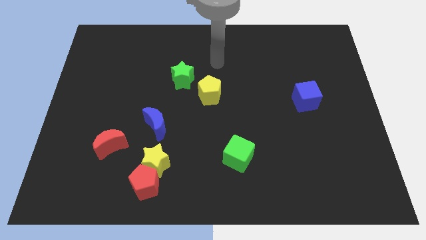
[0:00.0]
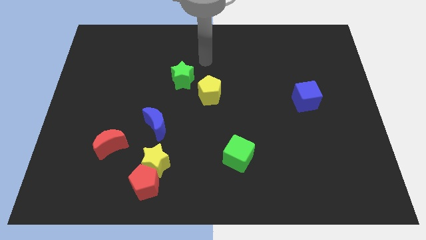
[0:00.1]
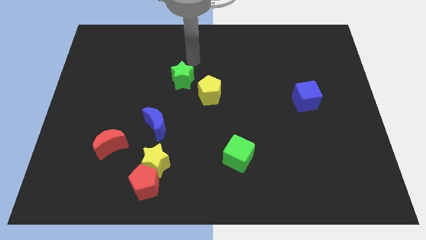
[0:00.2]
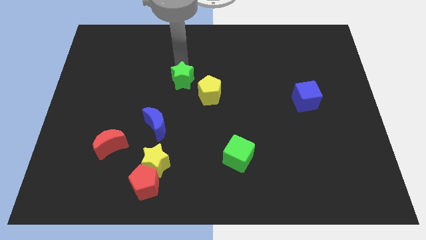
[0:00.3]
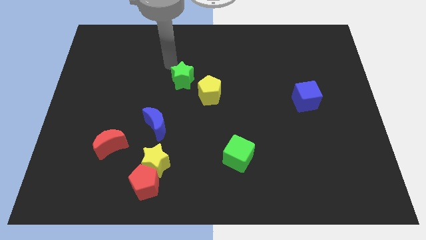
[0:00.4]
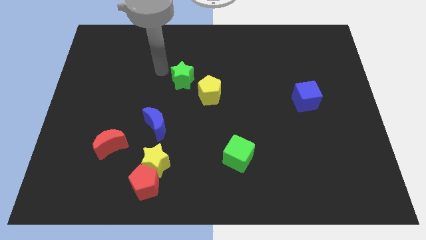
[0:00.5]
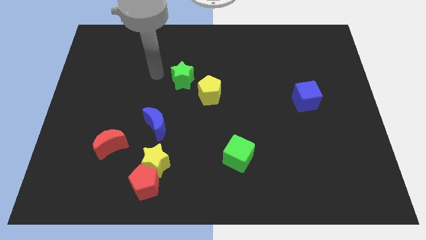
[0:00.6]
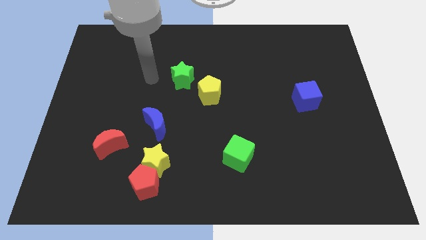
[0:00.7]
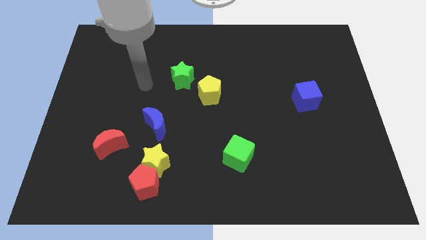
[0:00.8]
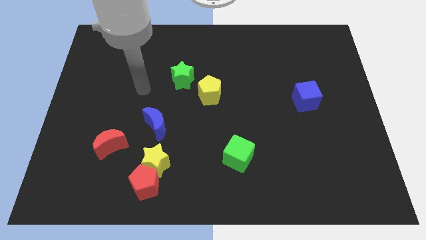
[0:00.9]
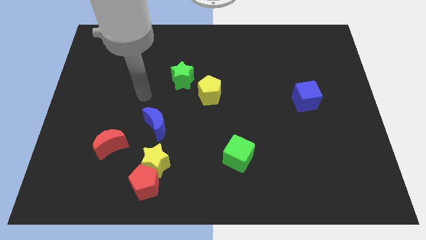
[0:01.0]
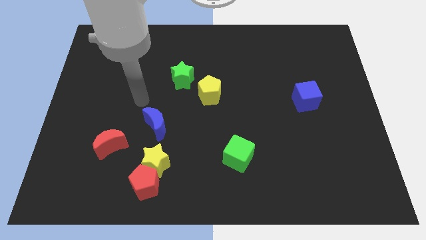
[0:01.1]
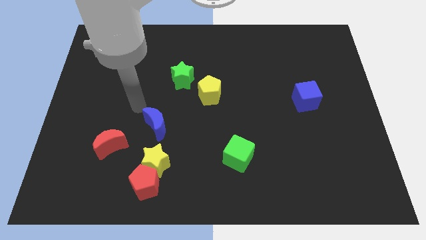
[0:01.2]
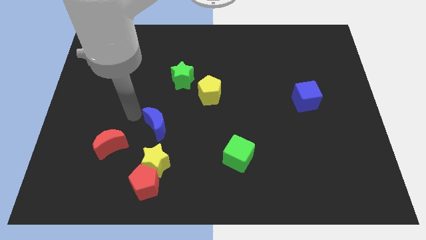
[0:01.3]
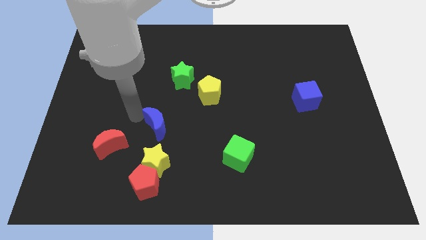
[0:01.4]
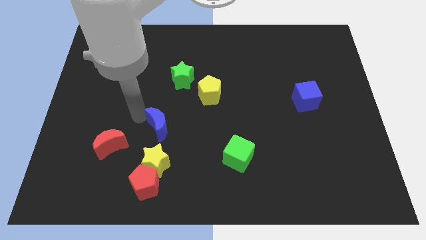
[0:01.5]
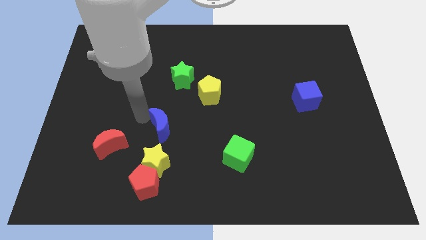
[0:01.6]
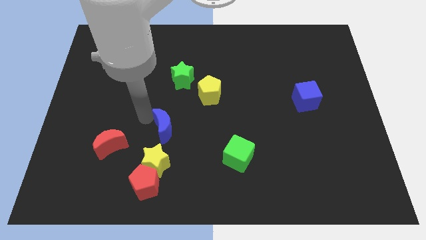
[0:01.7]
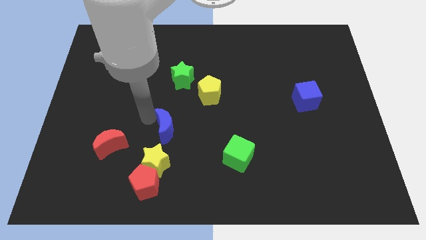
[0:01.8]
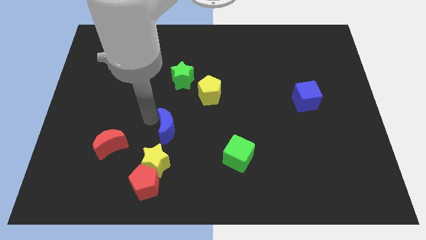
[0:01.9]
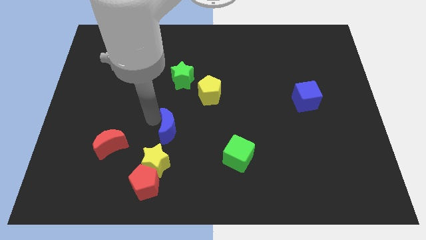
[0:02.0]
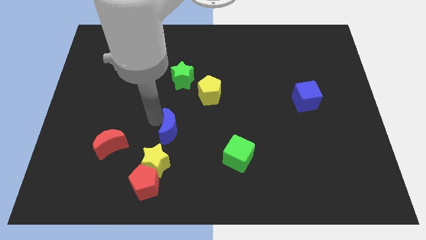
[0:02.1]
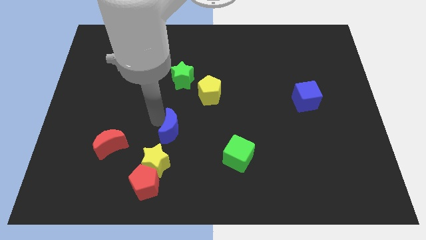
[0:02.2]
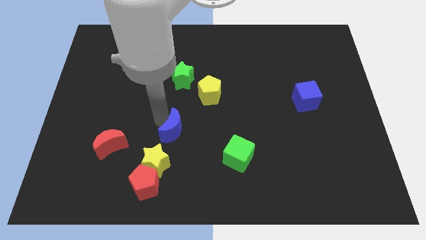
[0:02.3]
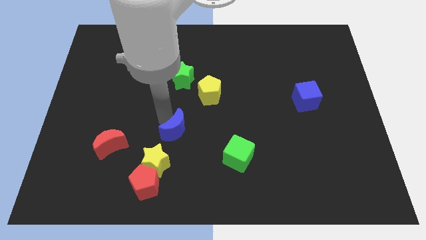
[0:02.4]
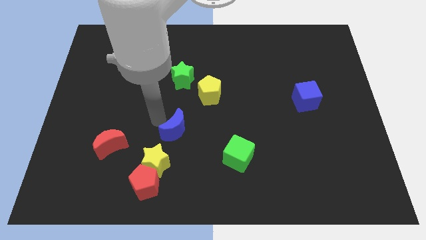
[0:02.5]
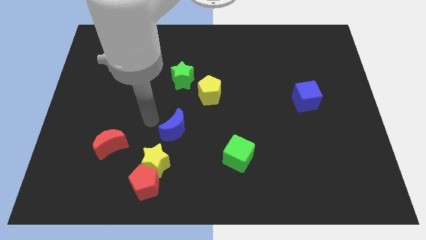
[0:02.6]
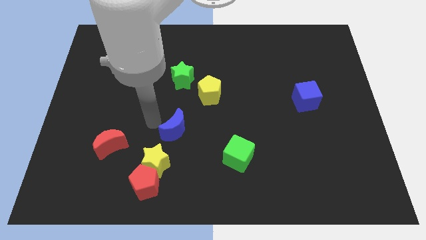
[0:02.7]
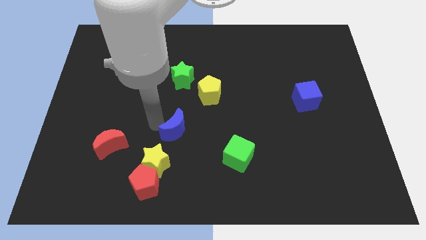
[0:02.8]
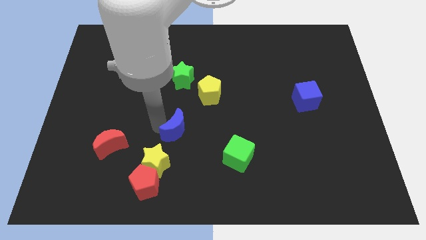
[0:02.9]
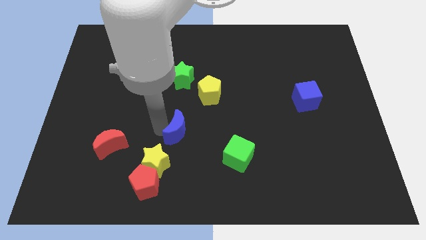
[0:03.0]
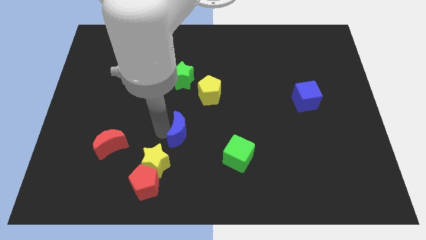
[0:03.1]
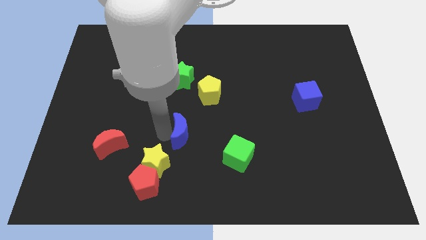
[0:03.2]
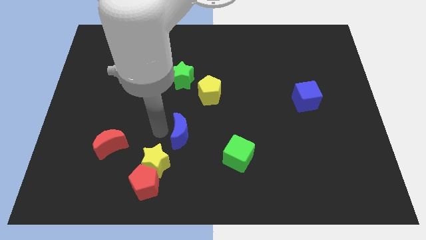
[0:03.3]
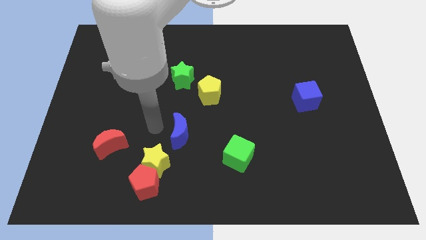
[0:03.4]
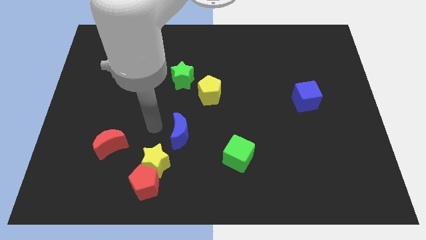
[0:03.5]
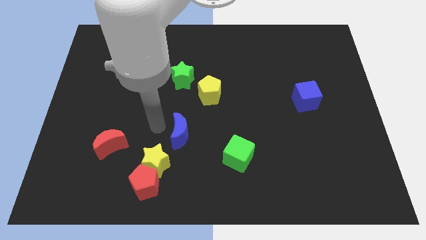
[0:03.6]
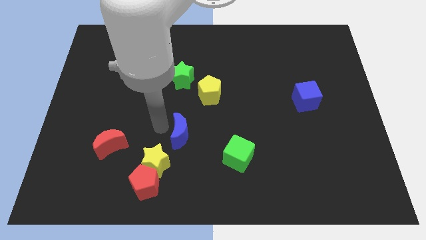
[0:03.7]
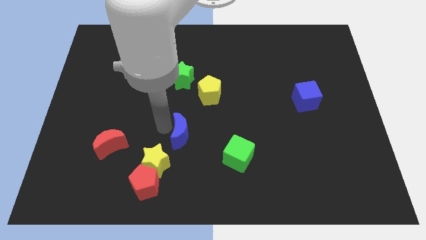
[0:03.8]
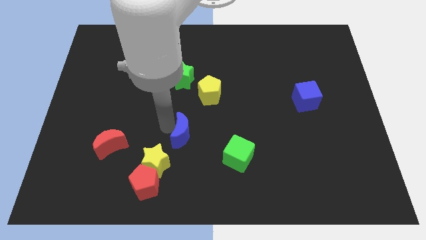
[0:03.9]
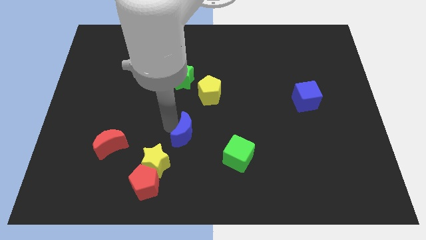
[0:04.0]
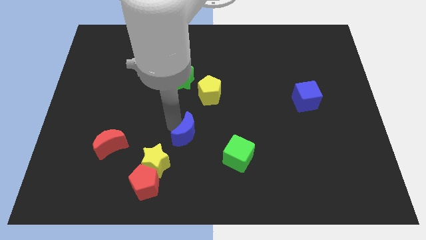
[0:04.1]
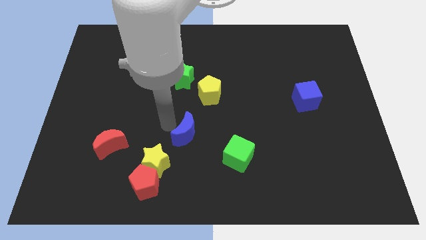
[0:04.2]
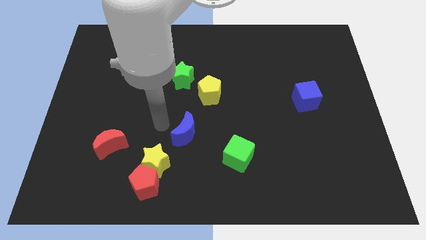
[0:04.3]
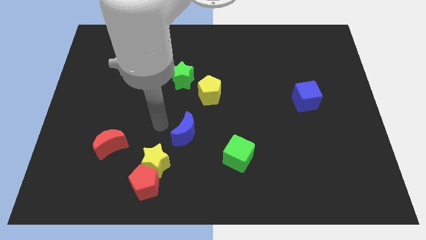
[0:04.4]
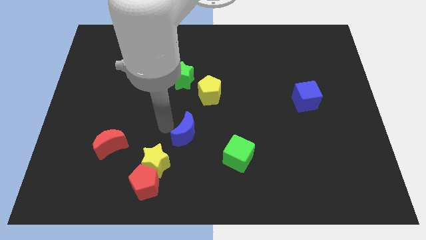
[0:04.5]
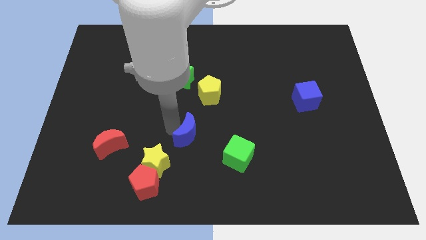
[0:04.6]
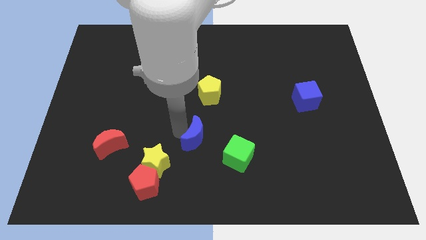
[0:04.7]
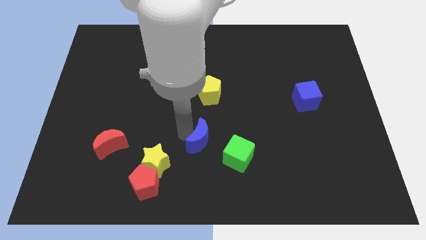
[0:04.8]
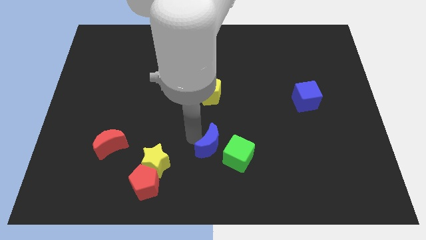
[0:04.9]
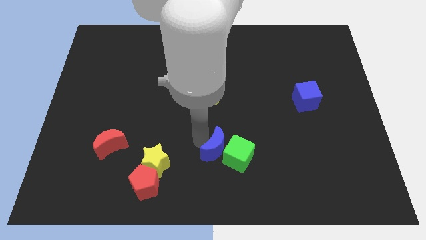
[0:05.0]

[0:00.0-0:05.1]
move the blue moon towards the green cube

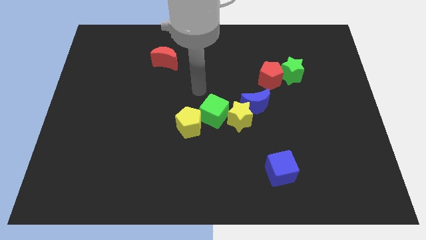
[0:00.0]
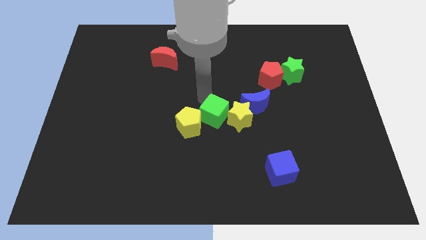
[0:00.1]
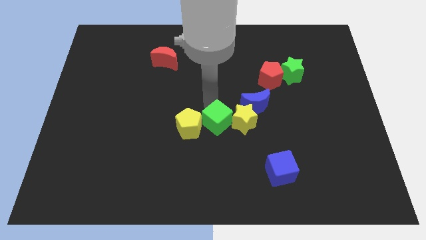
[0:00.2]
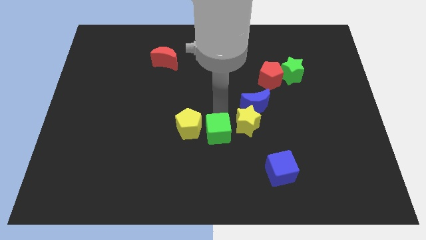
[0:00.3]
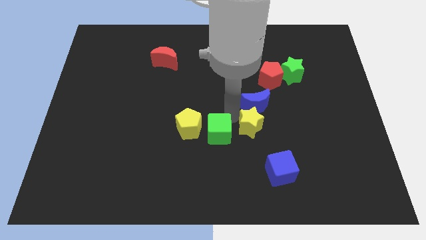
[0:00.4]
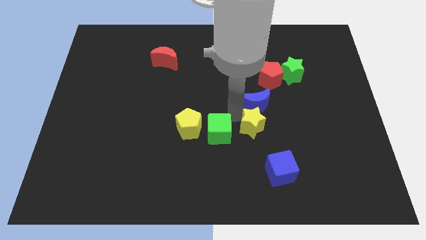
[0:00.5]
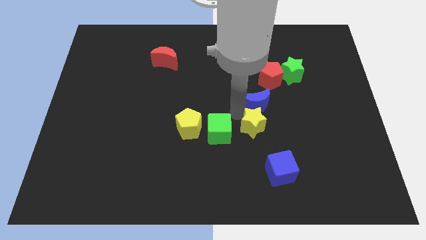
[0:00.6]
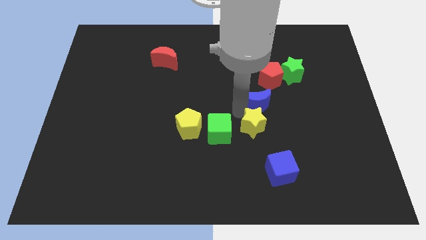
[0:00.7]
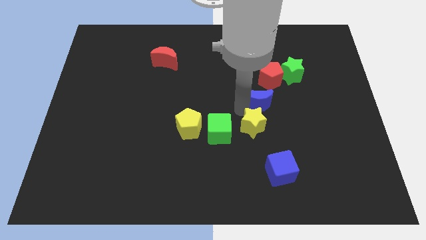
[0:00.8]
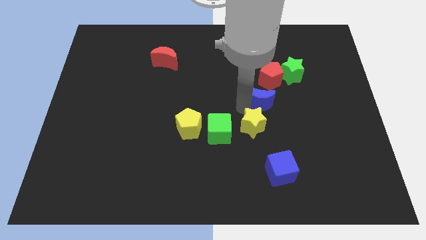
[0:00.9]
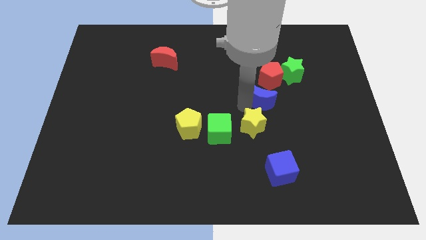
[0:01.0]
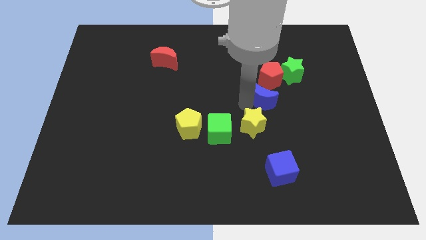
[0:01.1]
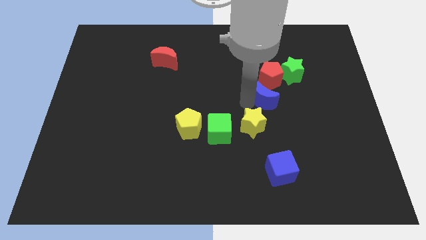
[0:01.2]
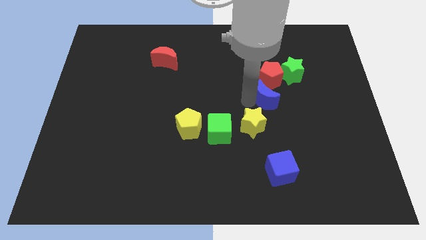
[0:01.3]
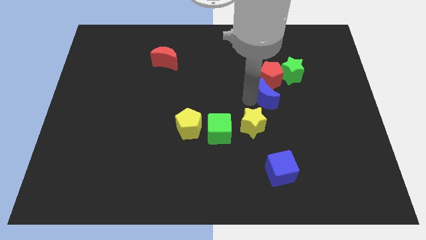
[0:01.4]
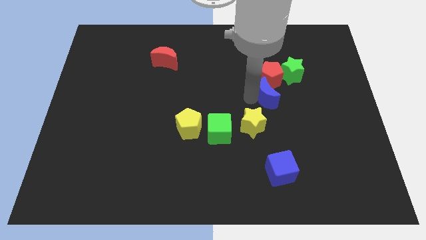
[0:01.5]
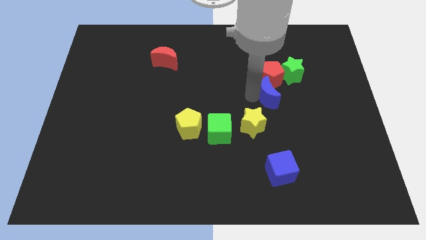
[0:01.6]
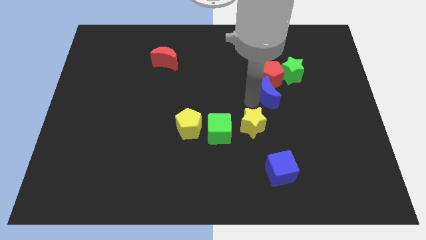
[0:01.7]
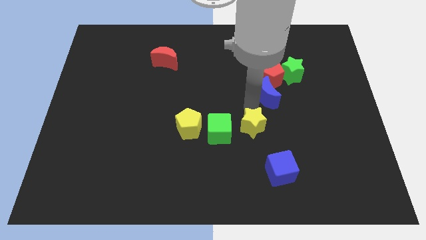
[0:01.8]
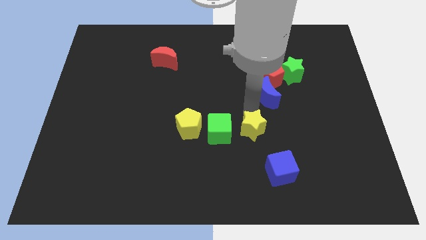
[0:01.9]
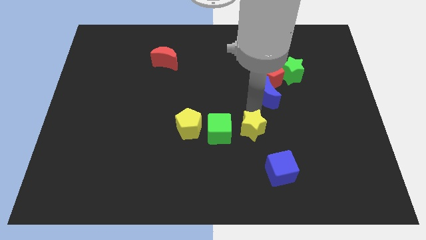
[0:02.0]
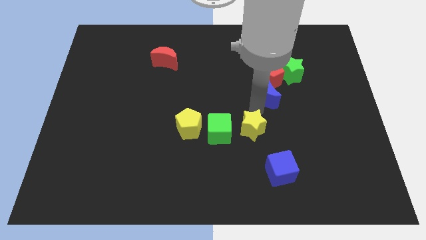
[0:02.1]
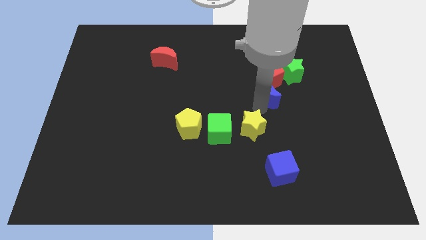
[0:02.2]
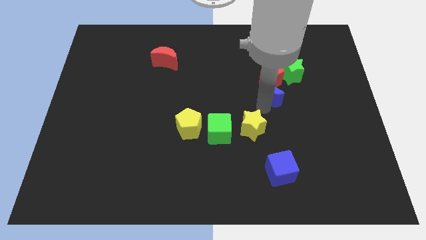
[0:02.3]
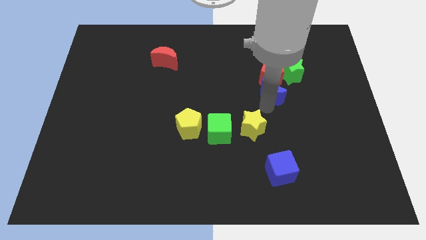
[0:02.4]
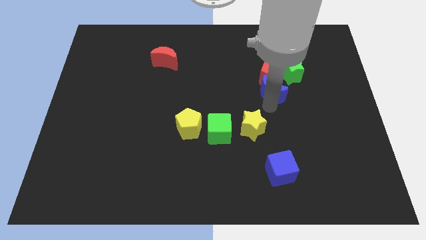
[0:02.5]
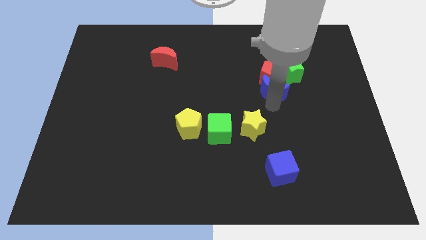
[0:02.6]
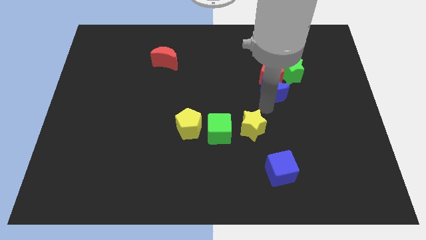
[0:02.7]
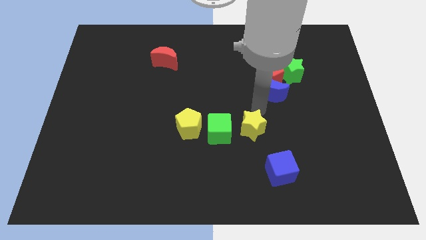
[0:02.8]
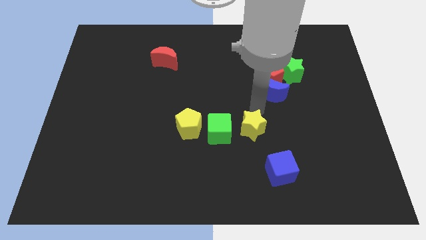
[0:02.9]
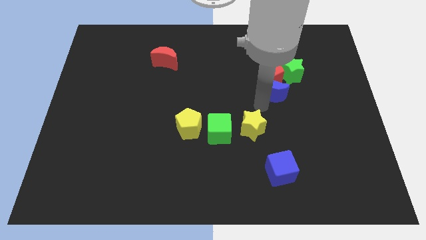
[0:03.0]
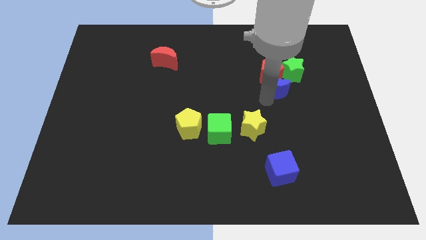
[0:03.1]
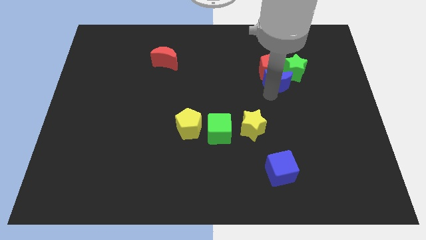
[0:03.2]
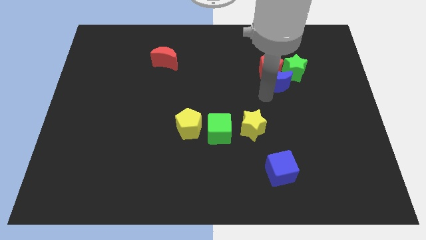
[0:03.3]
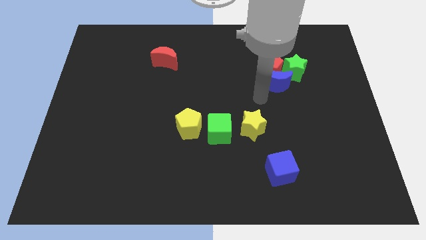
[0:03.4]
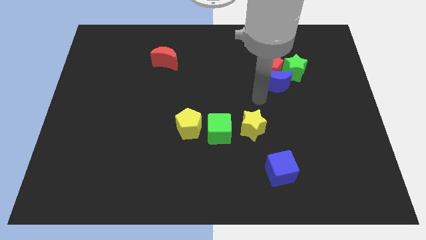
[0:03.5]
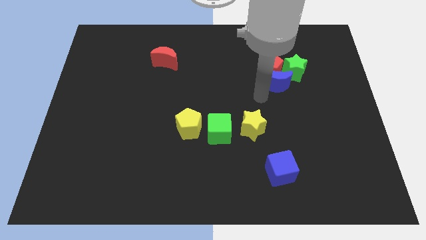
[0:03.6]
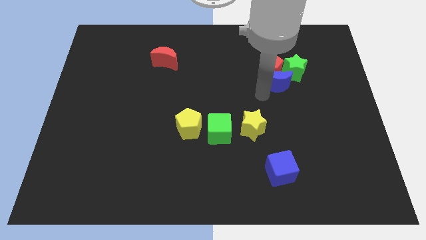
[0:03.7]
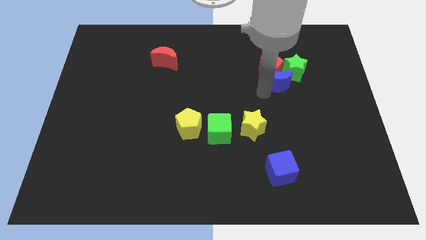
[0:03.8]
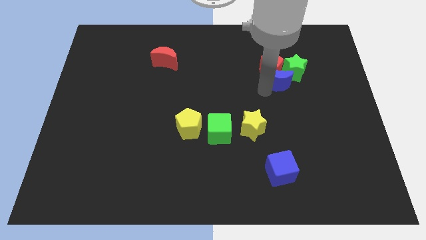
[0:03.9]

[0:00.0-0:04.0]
push the blue moon towards the green star
